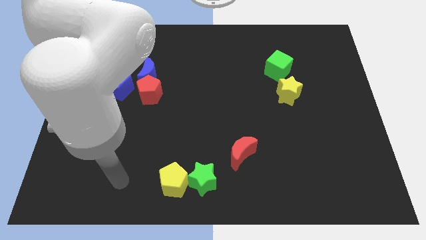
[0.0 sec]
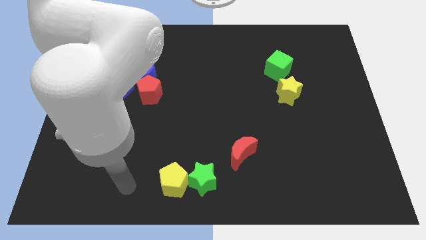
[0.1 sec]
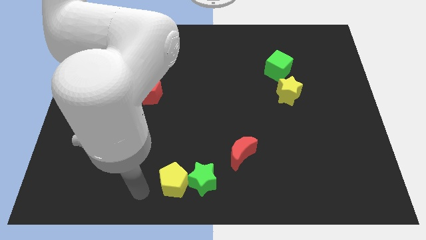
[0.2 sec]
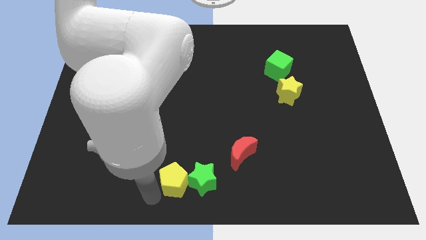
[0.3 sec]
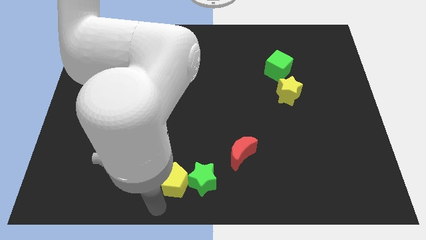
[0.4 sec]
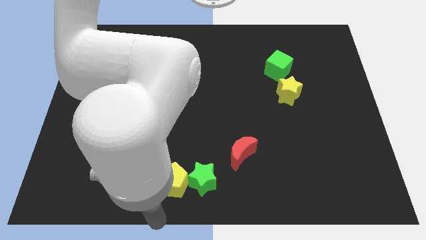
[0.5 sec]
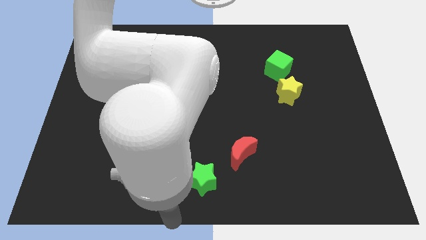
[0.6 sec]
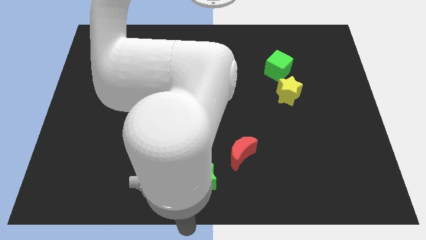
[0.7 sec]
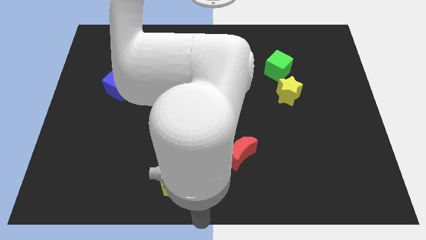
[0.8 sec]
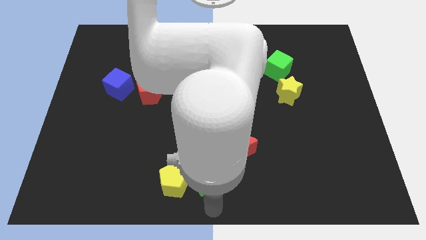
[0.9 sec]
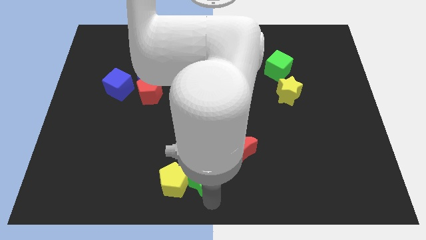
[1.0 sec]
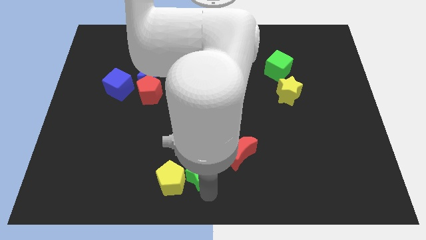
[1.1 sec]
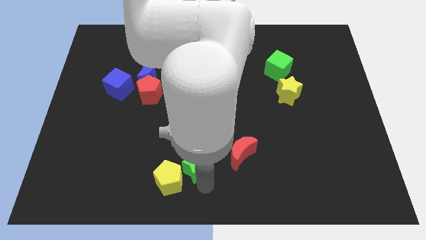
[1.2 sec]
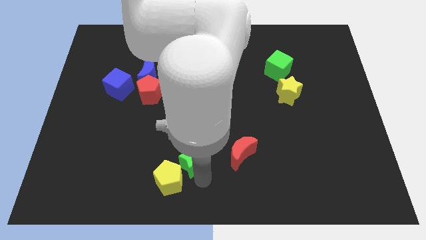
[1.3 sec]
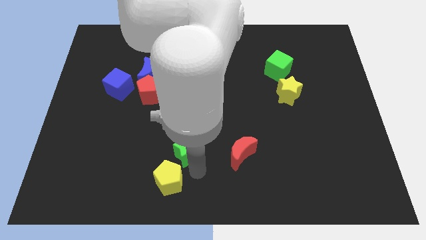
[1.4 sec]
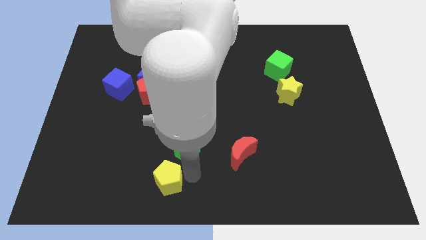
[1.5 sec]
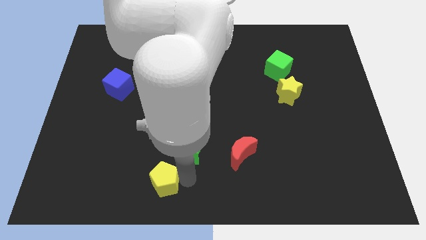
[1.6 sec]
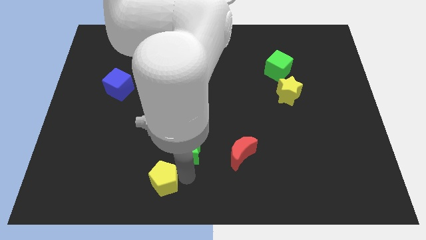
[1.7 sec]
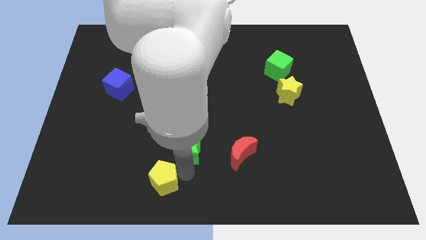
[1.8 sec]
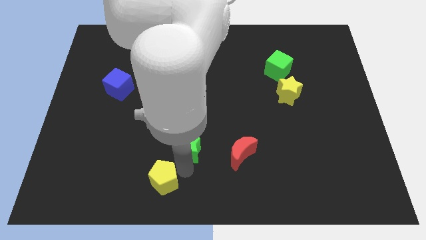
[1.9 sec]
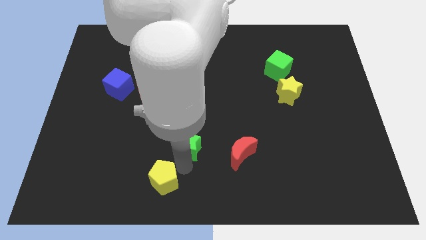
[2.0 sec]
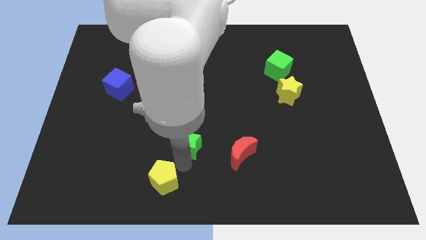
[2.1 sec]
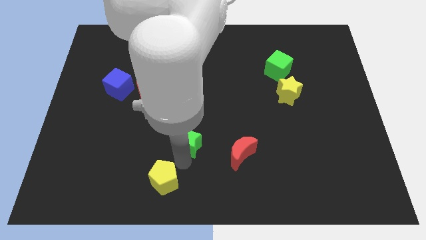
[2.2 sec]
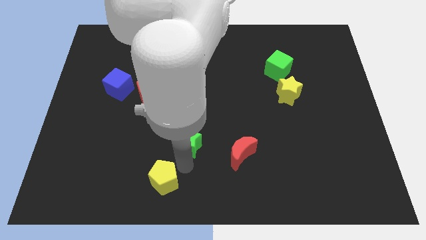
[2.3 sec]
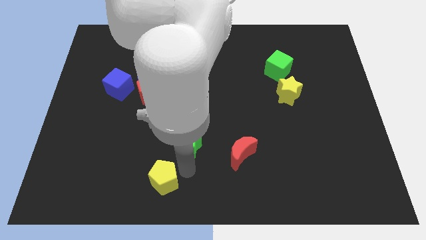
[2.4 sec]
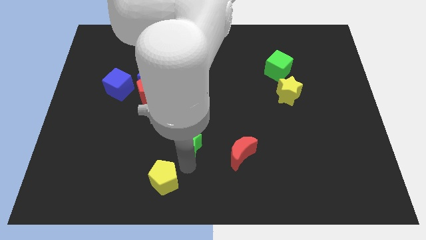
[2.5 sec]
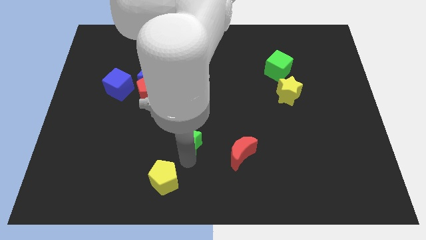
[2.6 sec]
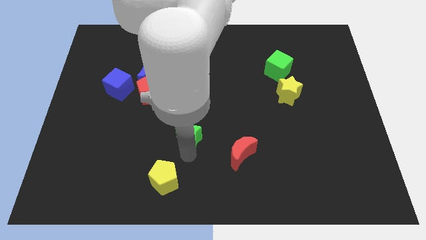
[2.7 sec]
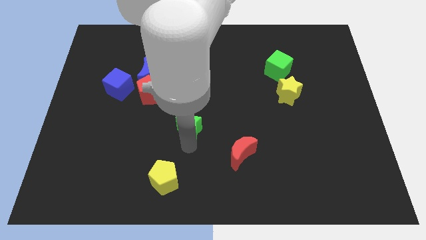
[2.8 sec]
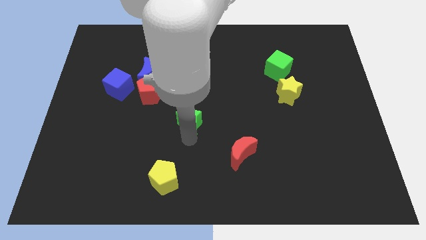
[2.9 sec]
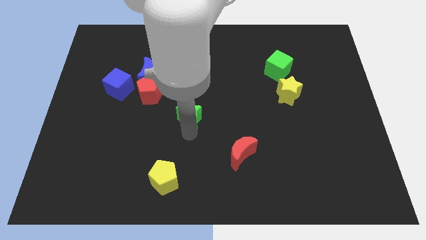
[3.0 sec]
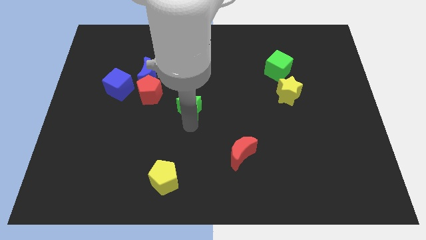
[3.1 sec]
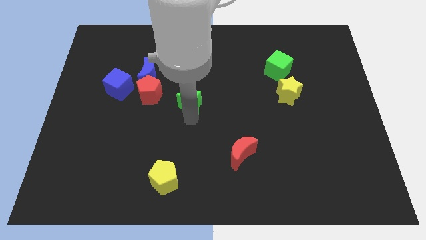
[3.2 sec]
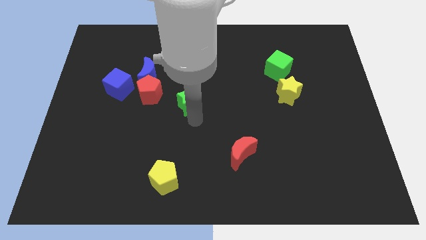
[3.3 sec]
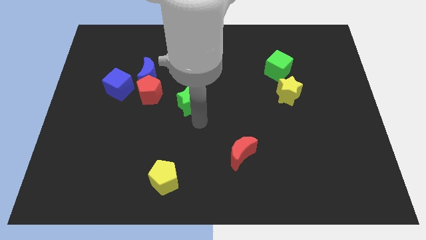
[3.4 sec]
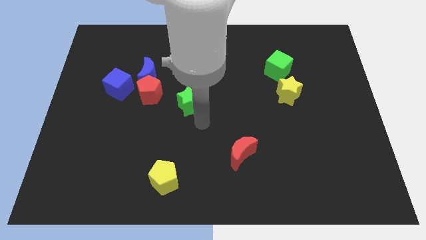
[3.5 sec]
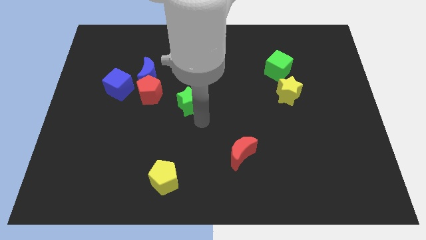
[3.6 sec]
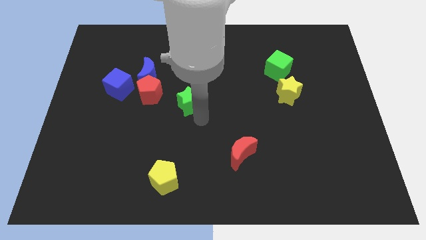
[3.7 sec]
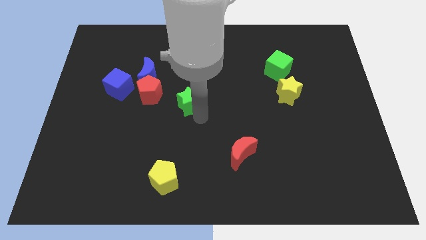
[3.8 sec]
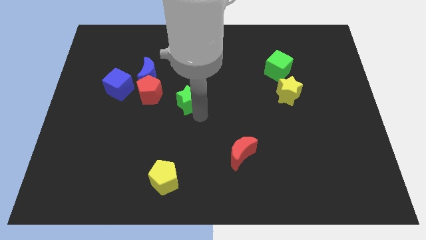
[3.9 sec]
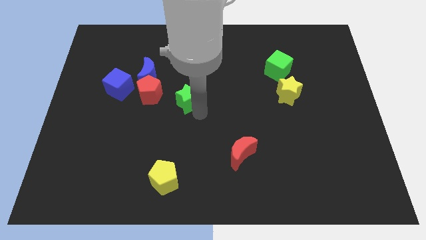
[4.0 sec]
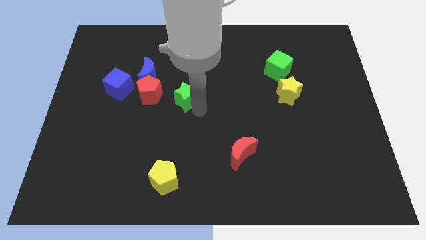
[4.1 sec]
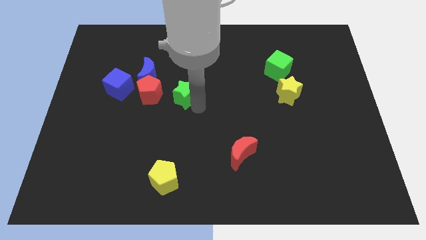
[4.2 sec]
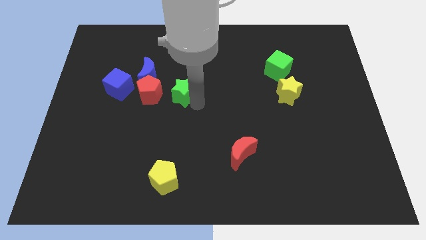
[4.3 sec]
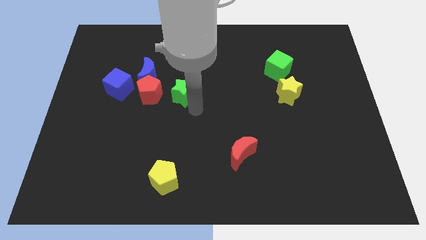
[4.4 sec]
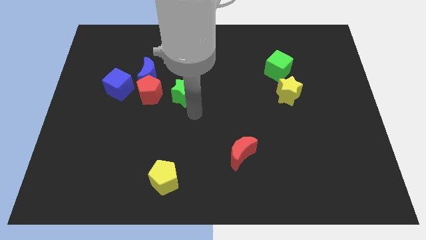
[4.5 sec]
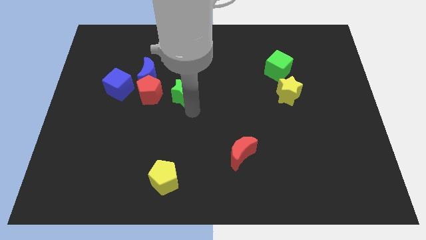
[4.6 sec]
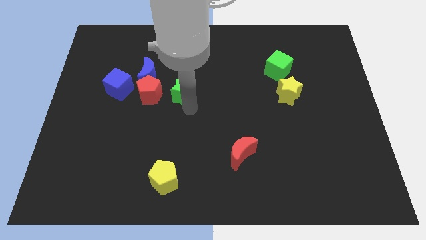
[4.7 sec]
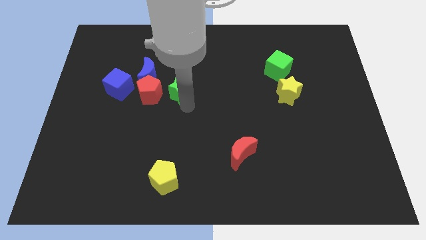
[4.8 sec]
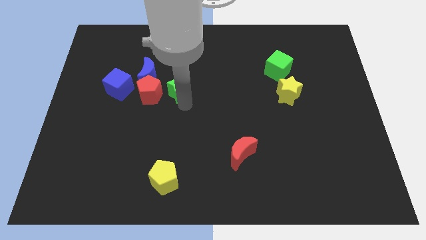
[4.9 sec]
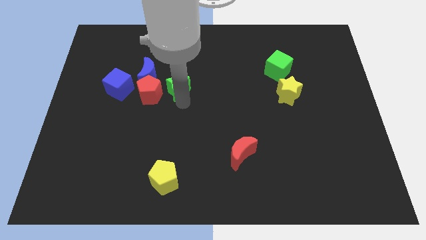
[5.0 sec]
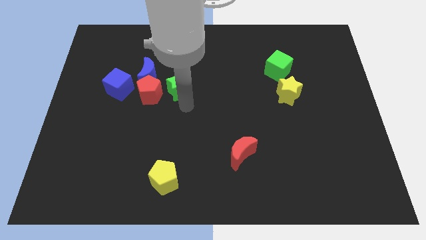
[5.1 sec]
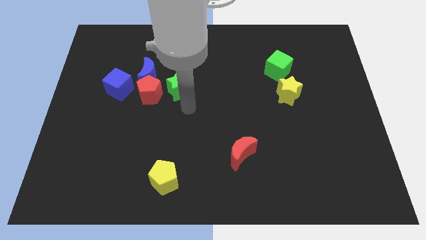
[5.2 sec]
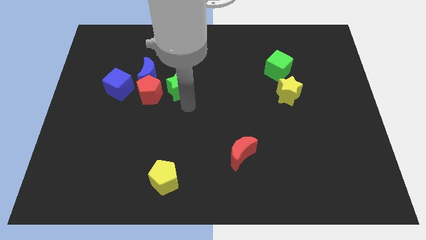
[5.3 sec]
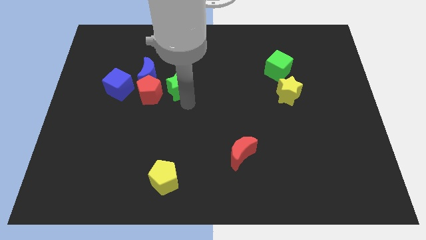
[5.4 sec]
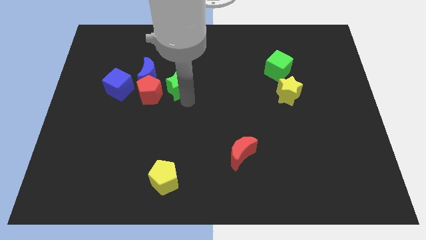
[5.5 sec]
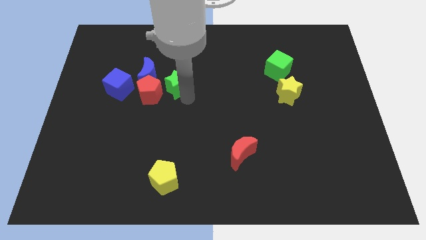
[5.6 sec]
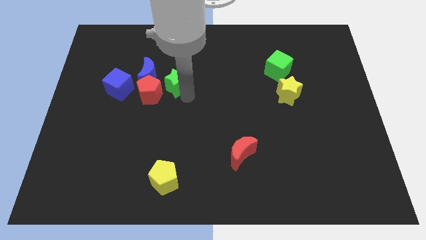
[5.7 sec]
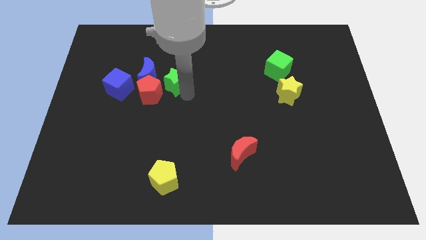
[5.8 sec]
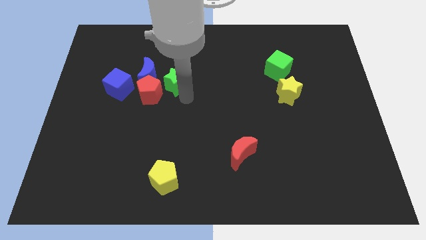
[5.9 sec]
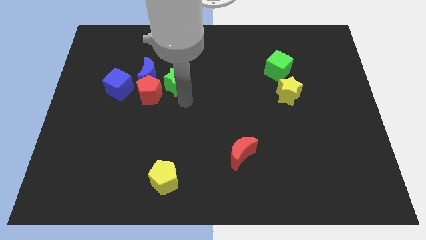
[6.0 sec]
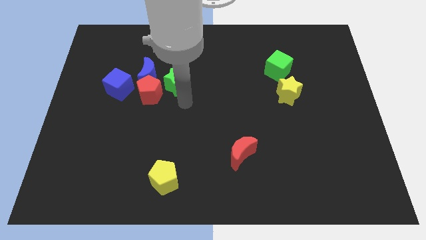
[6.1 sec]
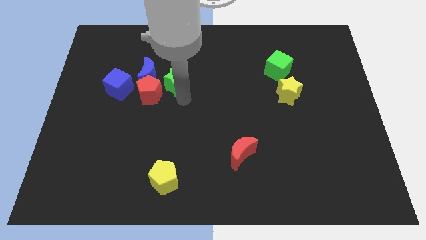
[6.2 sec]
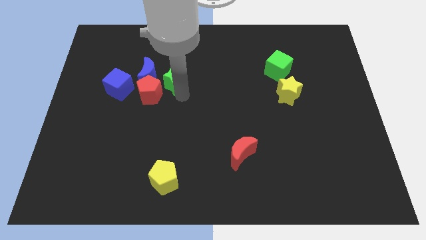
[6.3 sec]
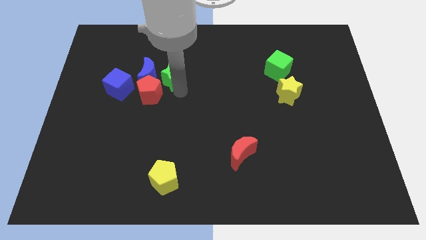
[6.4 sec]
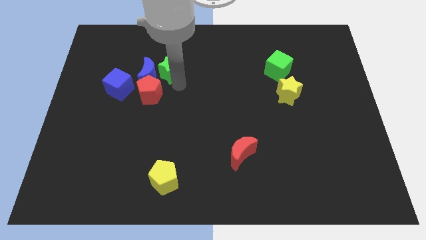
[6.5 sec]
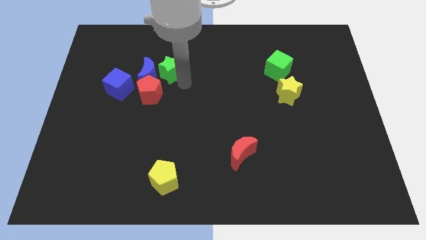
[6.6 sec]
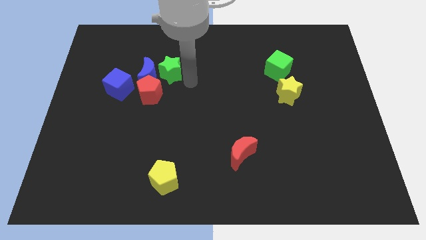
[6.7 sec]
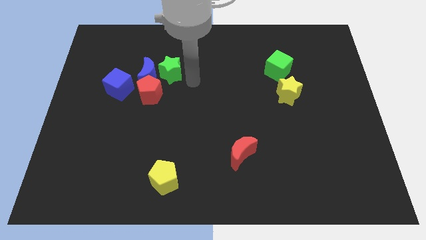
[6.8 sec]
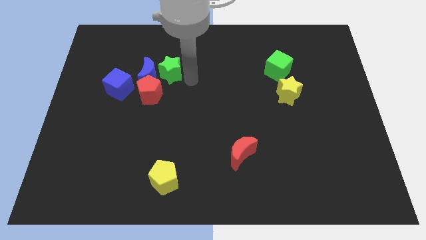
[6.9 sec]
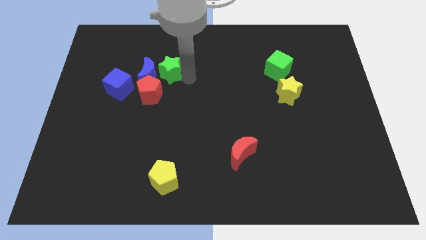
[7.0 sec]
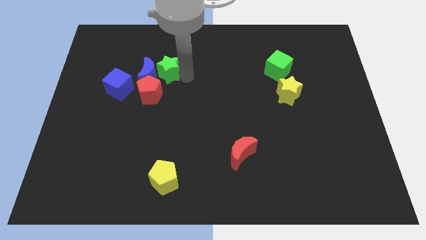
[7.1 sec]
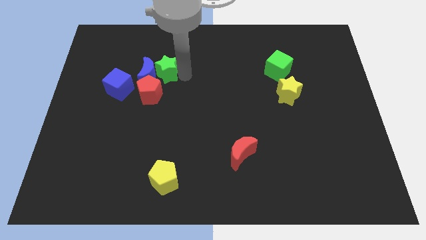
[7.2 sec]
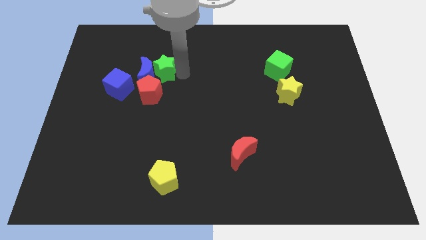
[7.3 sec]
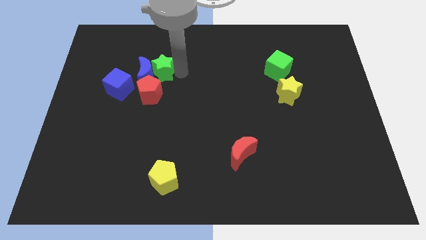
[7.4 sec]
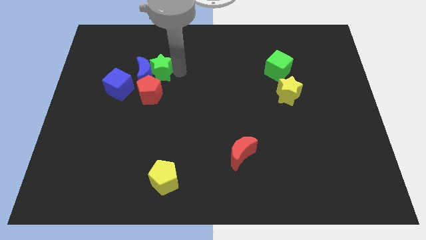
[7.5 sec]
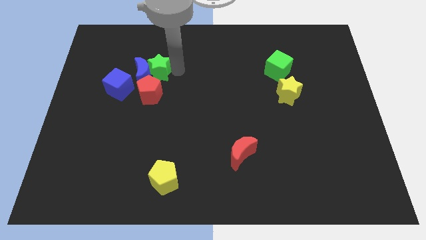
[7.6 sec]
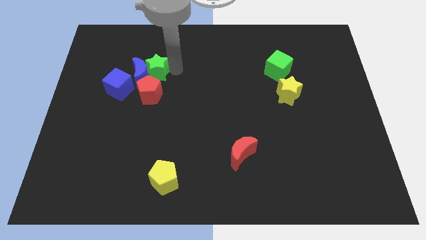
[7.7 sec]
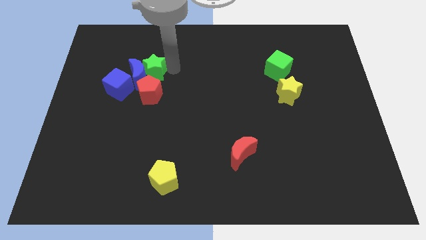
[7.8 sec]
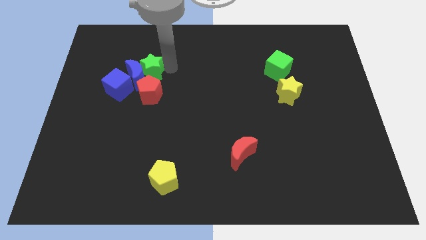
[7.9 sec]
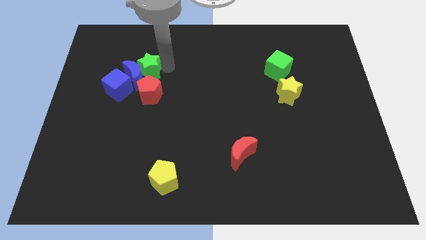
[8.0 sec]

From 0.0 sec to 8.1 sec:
slide the green star diagonally up and to the left of the red pentagon
